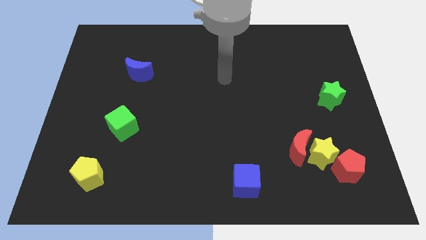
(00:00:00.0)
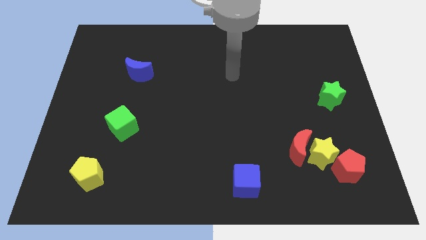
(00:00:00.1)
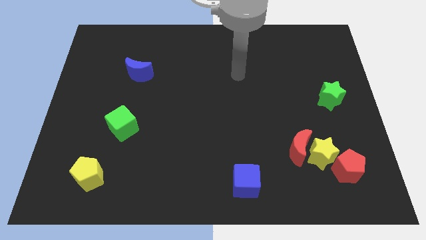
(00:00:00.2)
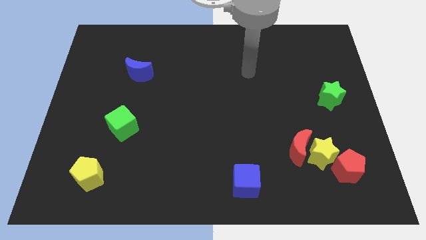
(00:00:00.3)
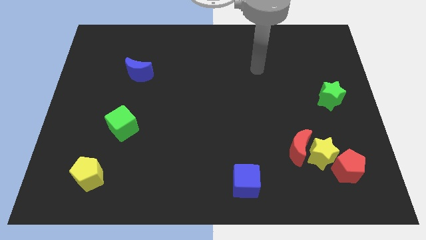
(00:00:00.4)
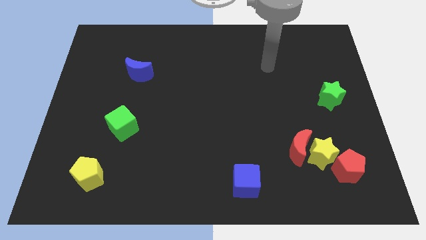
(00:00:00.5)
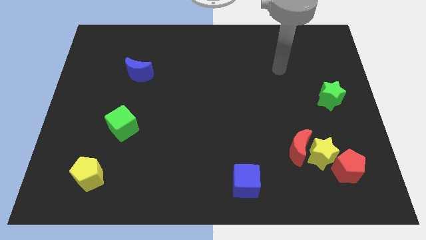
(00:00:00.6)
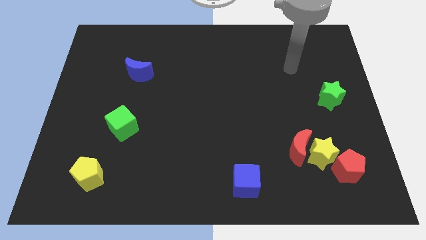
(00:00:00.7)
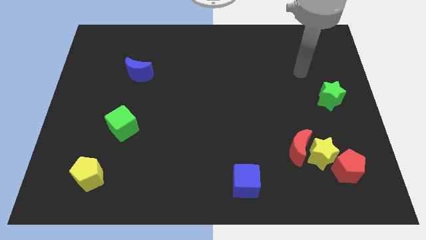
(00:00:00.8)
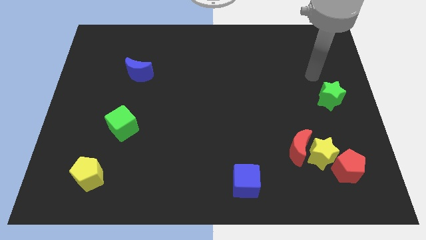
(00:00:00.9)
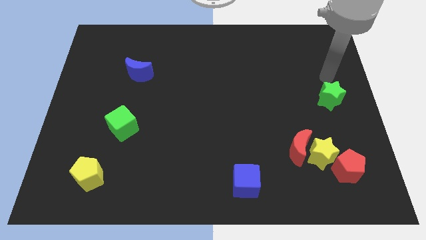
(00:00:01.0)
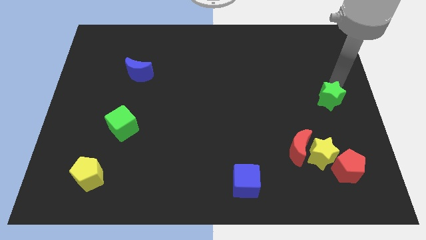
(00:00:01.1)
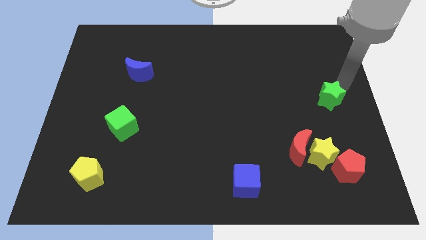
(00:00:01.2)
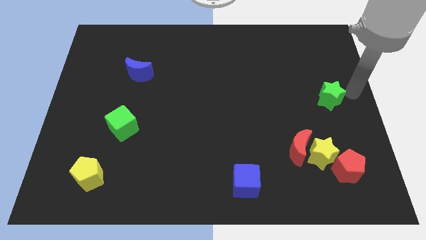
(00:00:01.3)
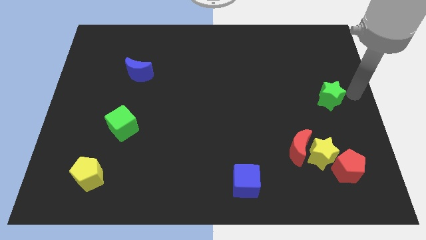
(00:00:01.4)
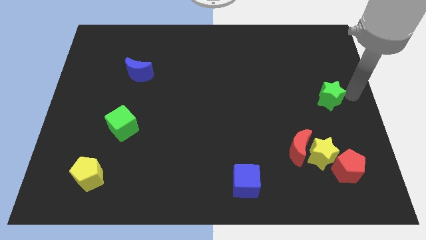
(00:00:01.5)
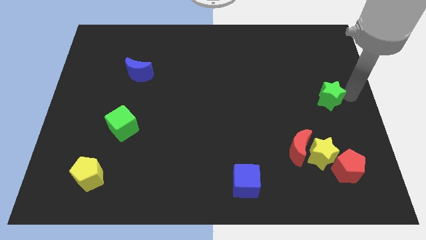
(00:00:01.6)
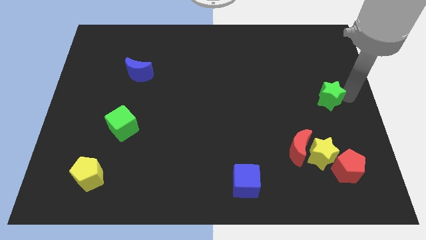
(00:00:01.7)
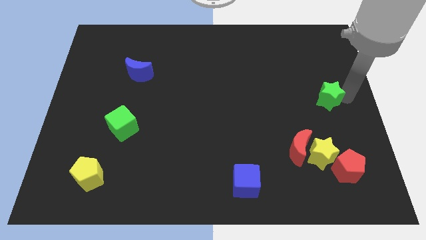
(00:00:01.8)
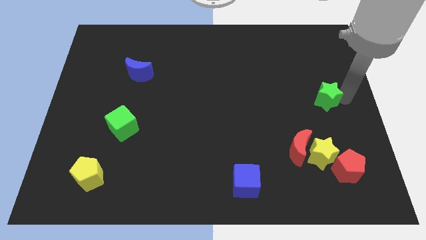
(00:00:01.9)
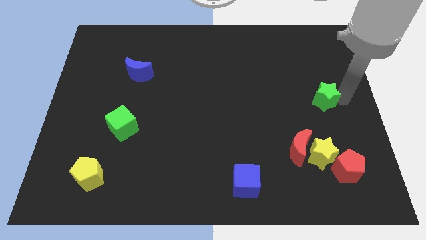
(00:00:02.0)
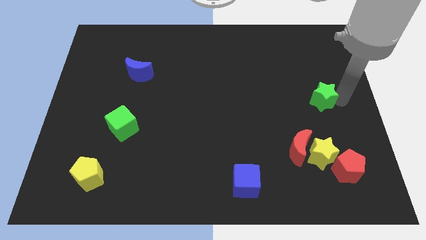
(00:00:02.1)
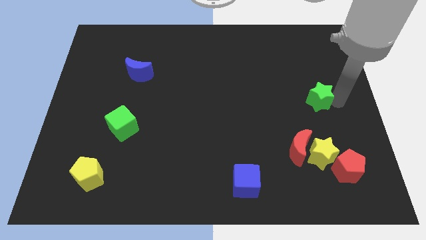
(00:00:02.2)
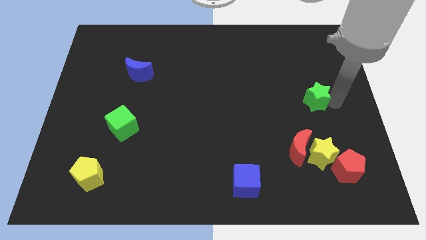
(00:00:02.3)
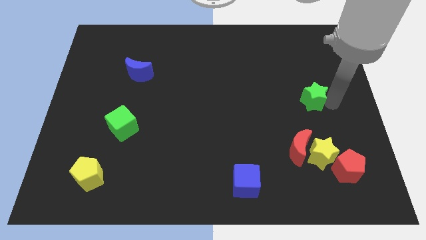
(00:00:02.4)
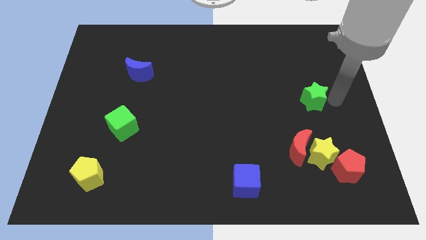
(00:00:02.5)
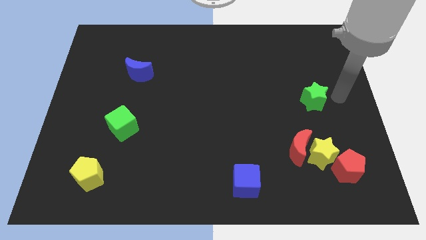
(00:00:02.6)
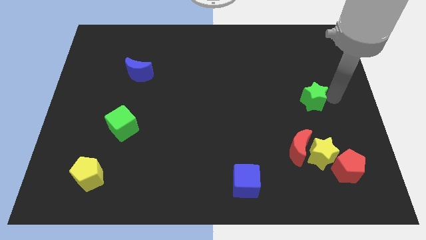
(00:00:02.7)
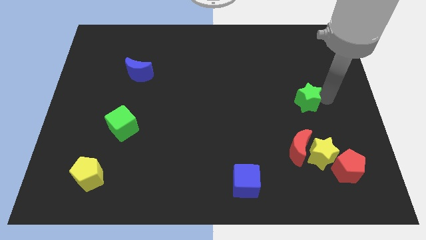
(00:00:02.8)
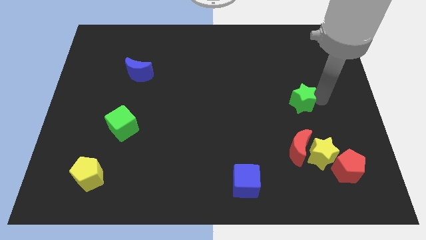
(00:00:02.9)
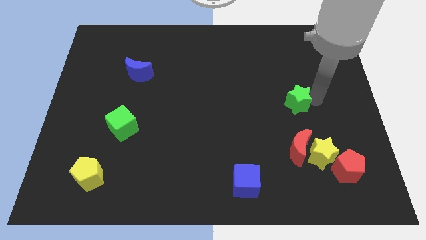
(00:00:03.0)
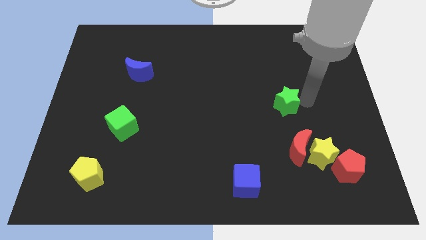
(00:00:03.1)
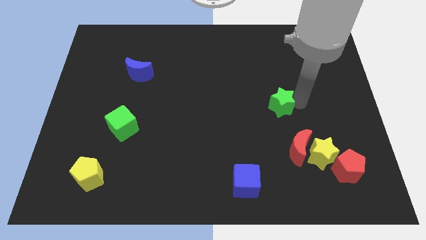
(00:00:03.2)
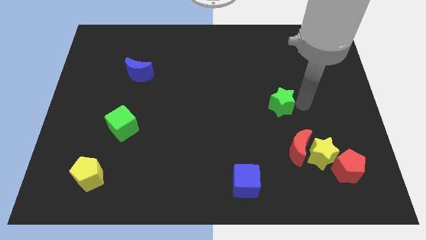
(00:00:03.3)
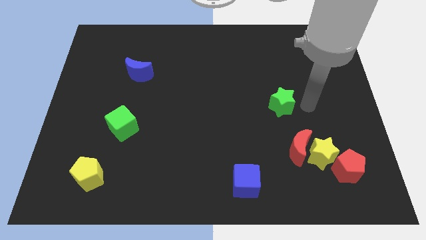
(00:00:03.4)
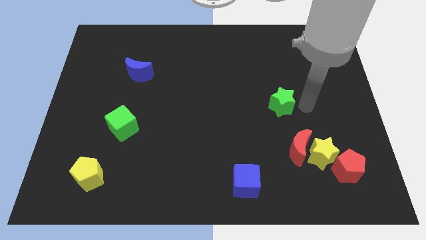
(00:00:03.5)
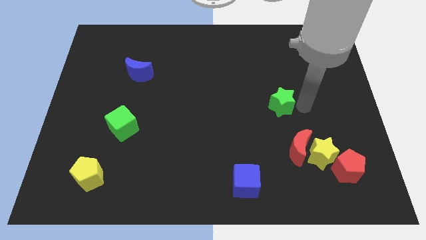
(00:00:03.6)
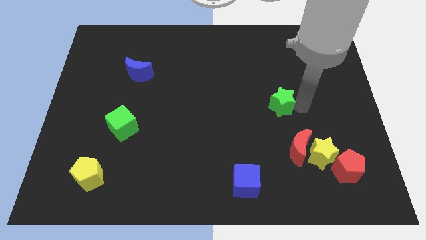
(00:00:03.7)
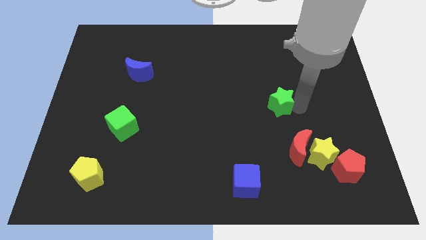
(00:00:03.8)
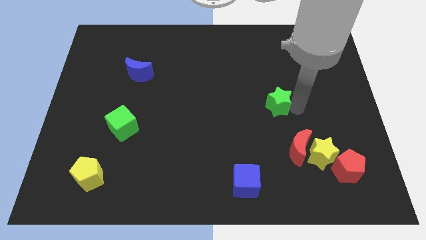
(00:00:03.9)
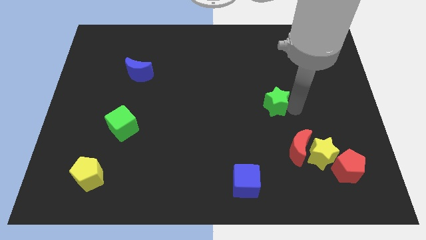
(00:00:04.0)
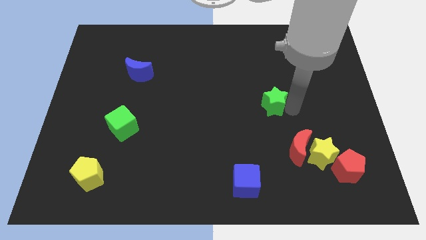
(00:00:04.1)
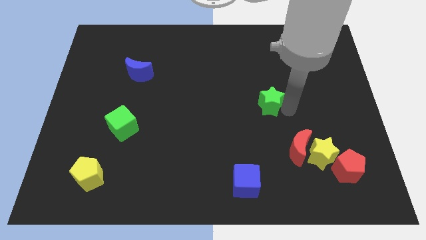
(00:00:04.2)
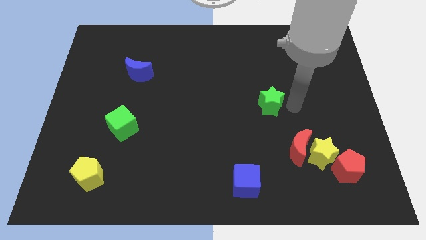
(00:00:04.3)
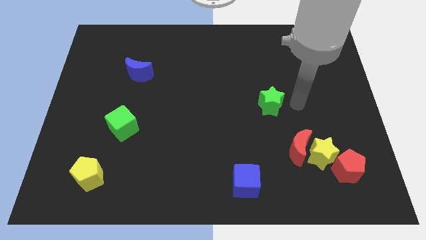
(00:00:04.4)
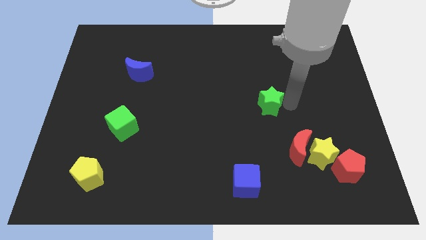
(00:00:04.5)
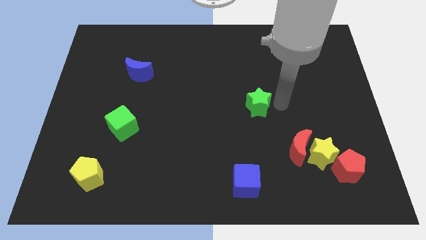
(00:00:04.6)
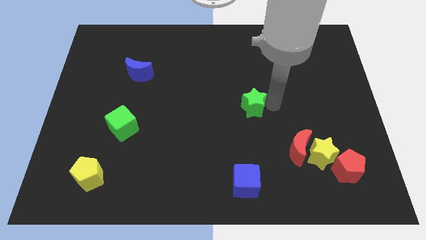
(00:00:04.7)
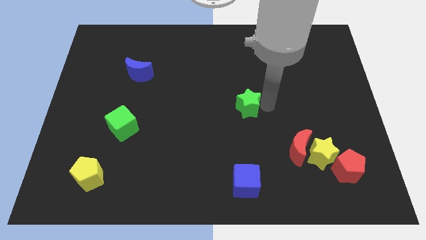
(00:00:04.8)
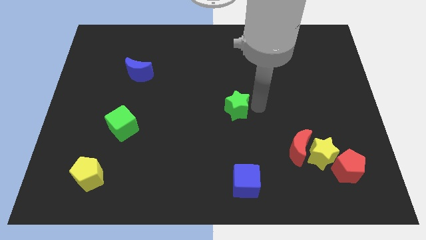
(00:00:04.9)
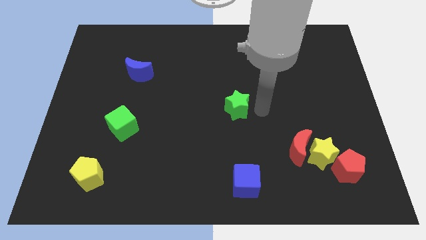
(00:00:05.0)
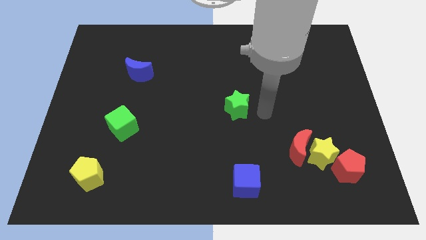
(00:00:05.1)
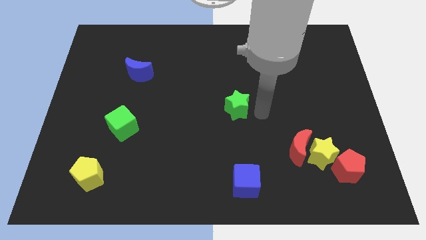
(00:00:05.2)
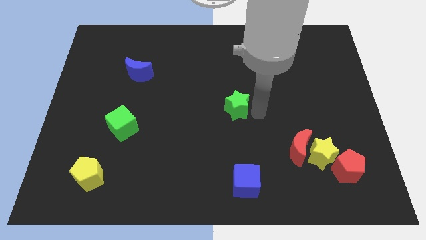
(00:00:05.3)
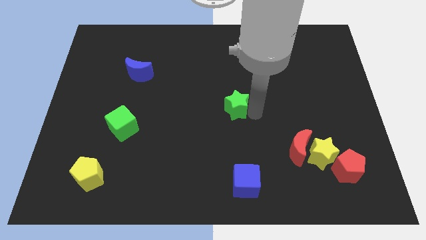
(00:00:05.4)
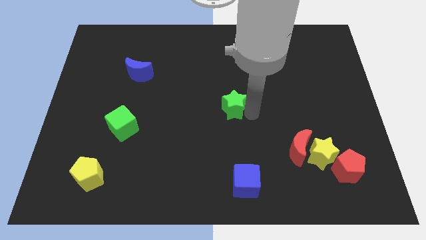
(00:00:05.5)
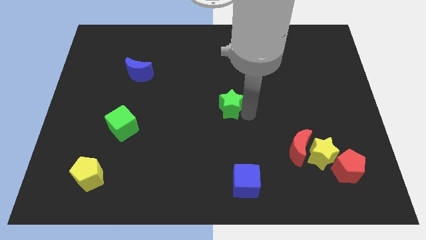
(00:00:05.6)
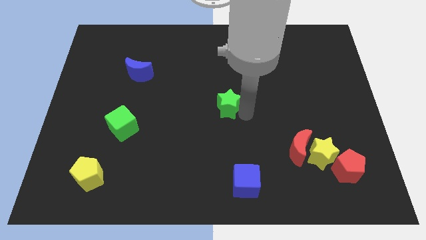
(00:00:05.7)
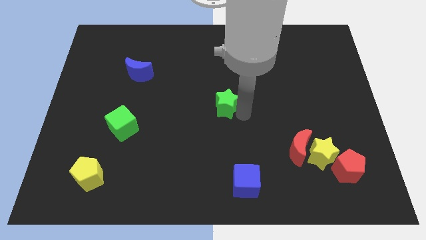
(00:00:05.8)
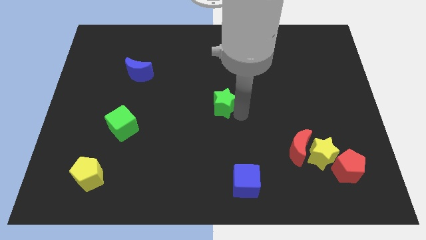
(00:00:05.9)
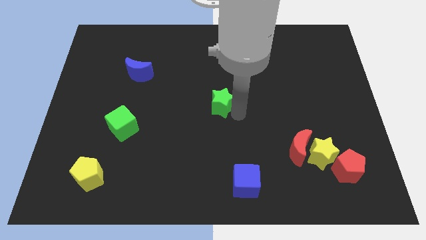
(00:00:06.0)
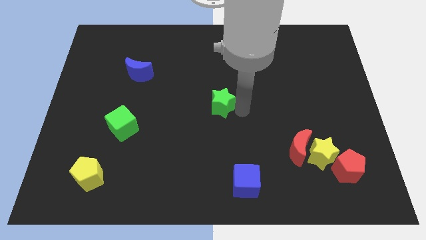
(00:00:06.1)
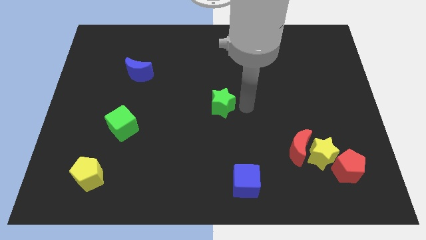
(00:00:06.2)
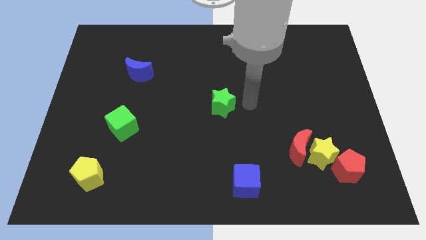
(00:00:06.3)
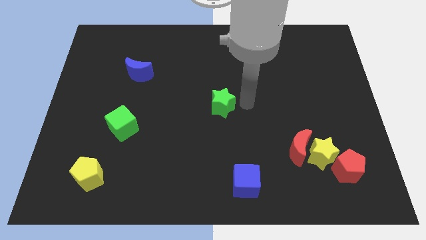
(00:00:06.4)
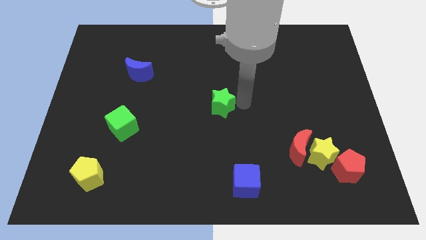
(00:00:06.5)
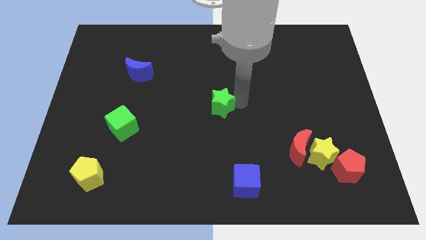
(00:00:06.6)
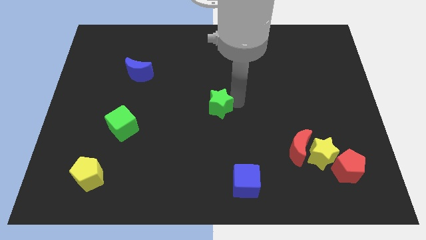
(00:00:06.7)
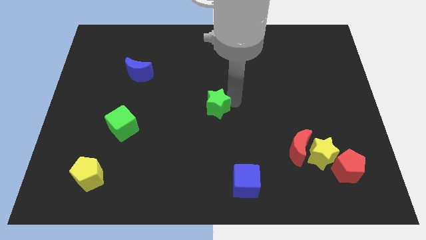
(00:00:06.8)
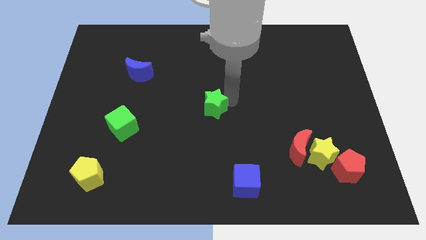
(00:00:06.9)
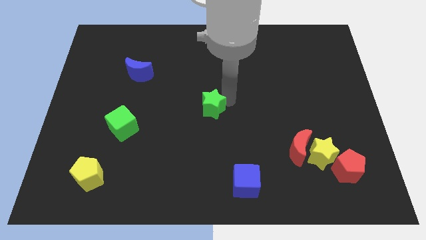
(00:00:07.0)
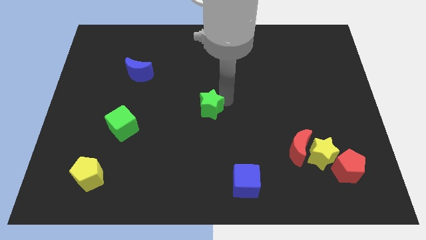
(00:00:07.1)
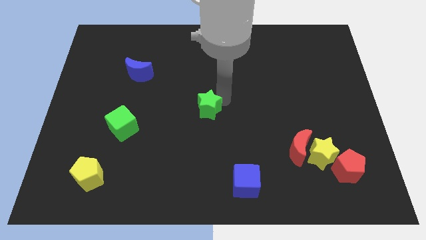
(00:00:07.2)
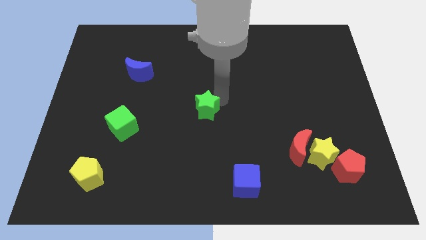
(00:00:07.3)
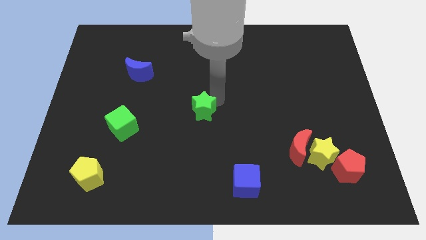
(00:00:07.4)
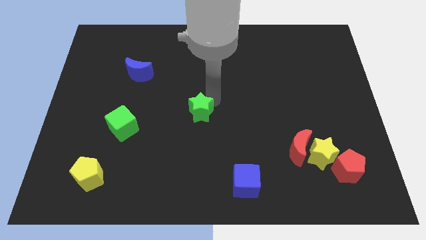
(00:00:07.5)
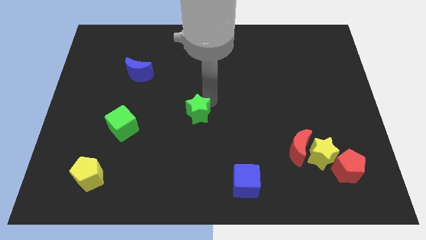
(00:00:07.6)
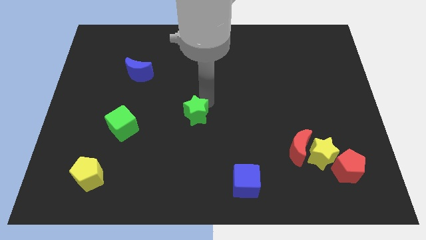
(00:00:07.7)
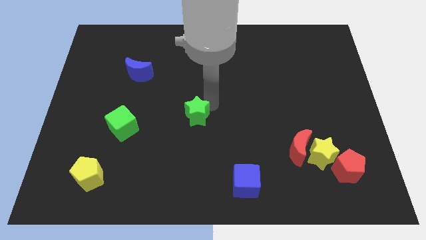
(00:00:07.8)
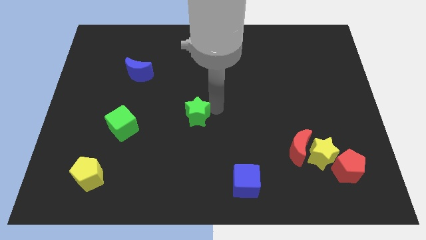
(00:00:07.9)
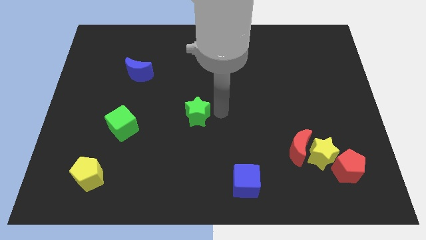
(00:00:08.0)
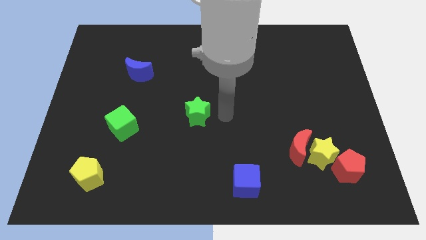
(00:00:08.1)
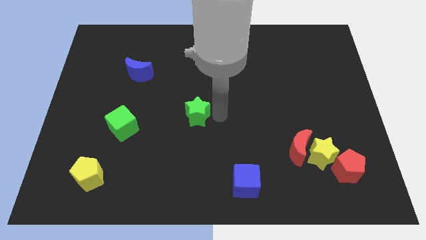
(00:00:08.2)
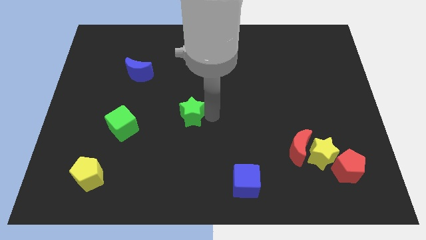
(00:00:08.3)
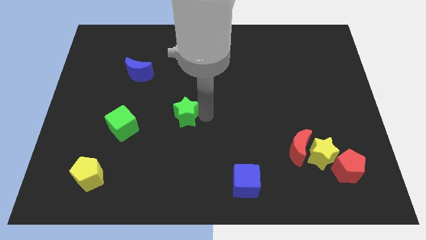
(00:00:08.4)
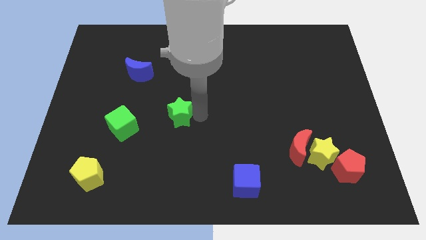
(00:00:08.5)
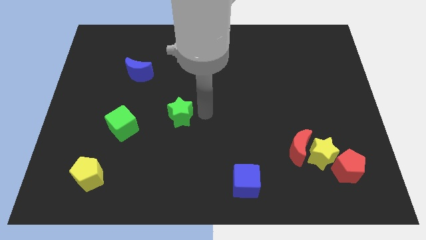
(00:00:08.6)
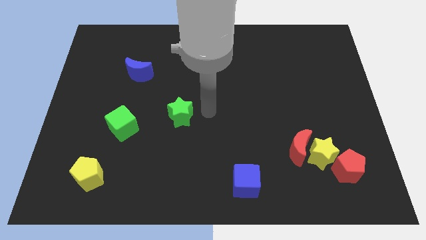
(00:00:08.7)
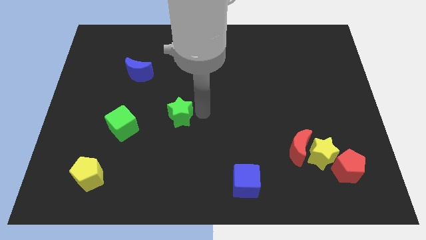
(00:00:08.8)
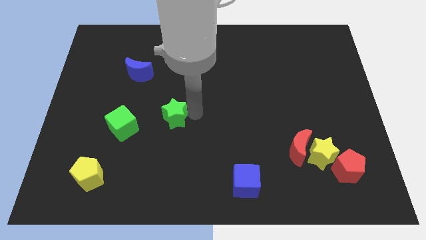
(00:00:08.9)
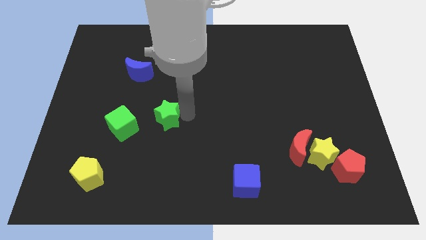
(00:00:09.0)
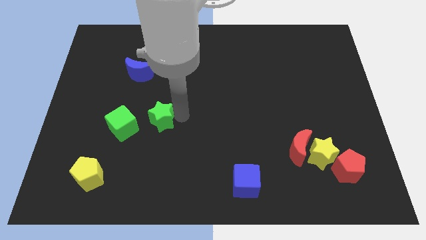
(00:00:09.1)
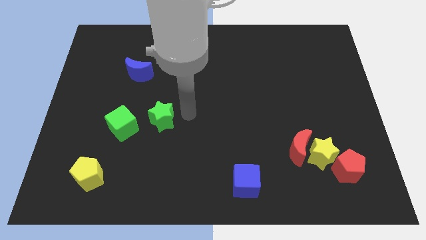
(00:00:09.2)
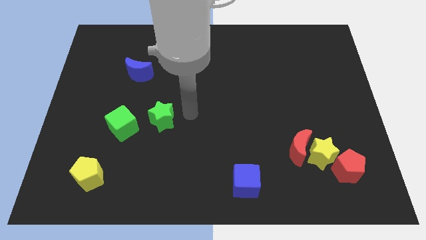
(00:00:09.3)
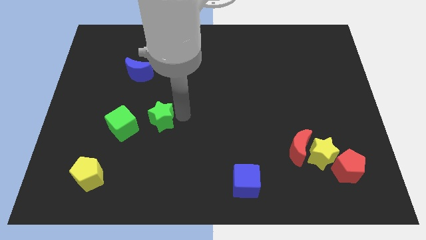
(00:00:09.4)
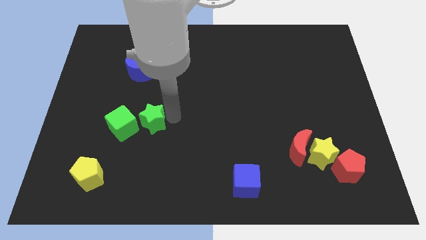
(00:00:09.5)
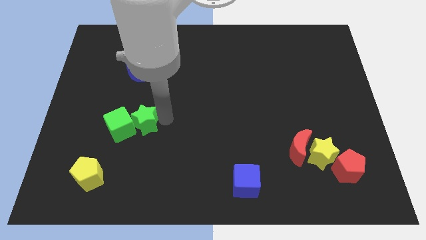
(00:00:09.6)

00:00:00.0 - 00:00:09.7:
slide the green star to the green cube
